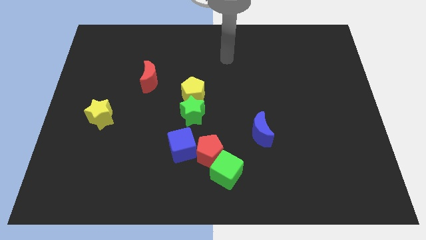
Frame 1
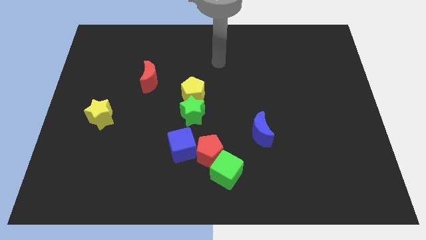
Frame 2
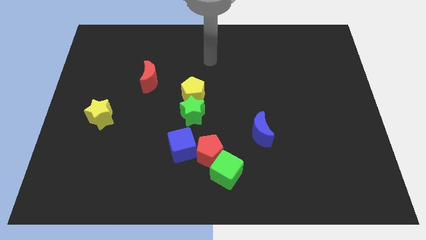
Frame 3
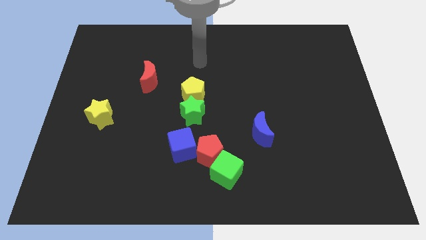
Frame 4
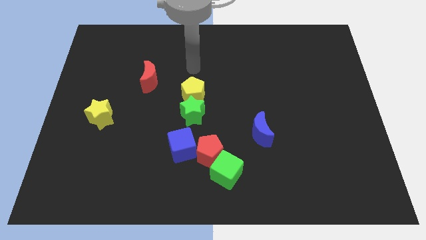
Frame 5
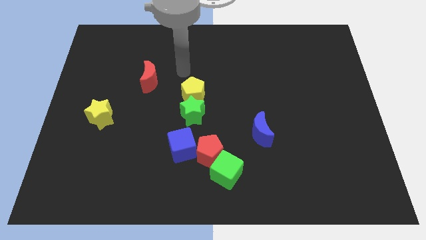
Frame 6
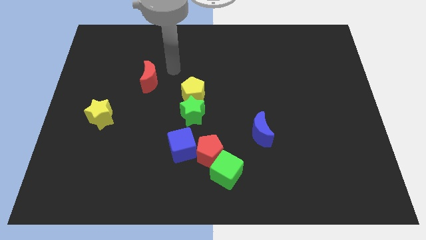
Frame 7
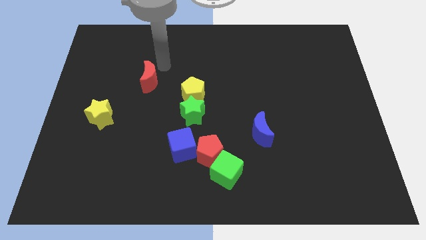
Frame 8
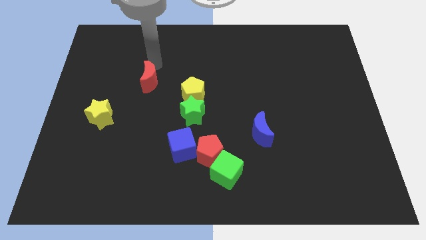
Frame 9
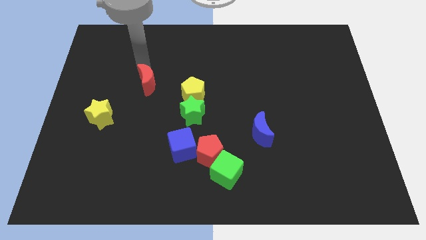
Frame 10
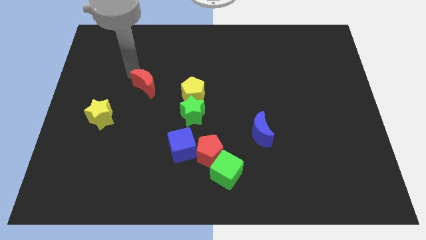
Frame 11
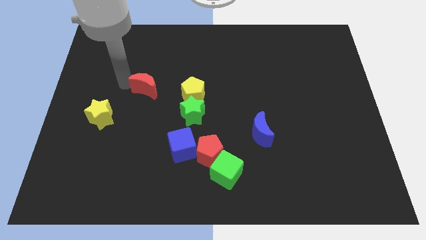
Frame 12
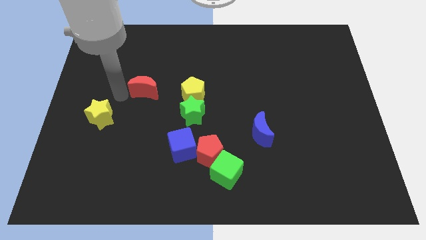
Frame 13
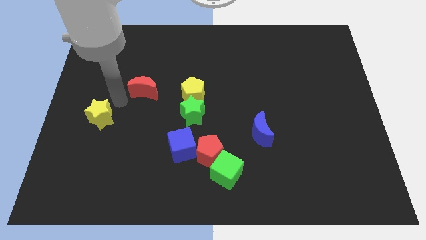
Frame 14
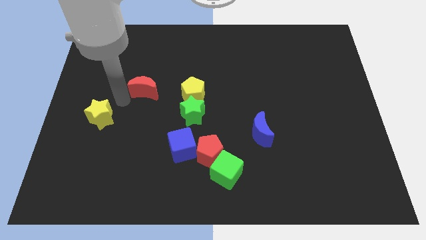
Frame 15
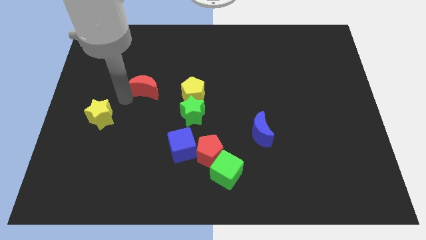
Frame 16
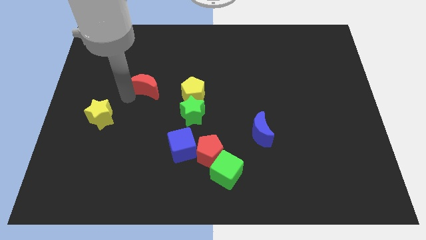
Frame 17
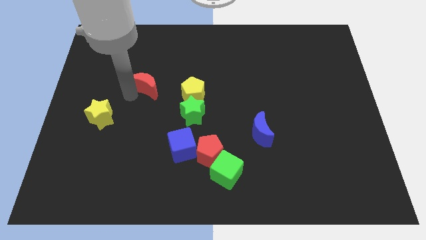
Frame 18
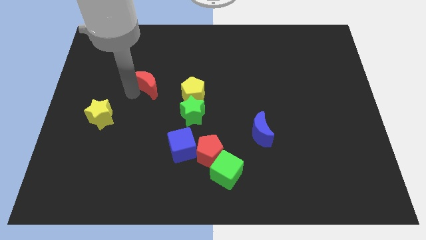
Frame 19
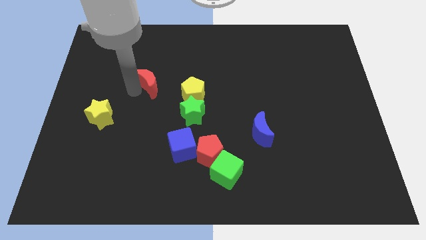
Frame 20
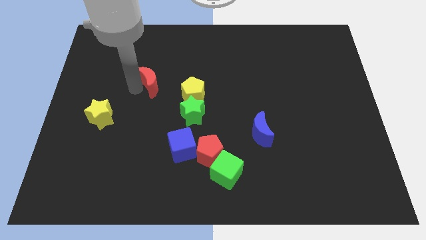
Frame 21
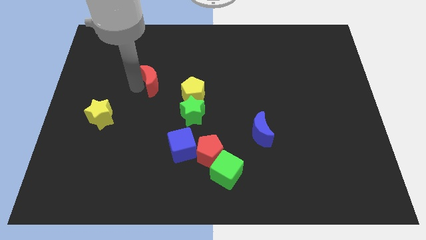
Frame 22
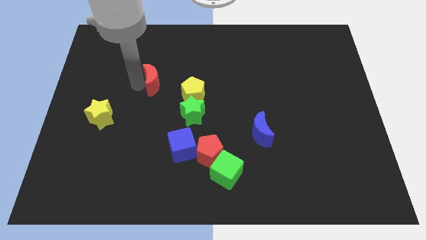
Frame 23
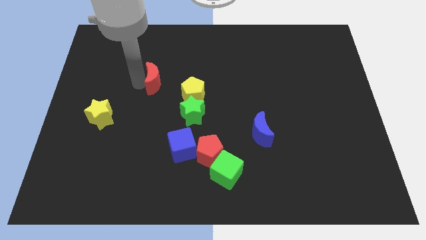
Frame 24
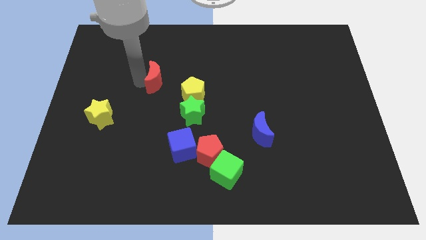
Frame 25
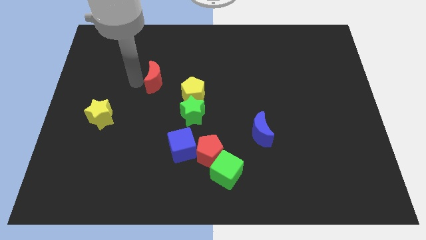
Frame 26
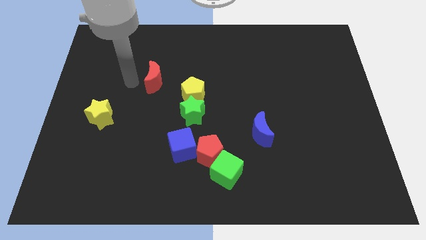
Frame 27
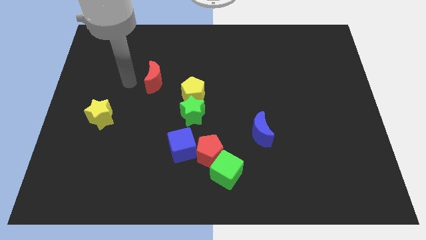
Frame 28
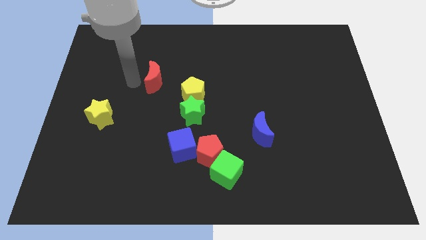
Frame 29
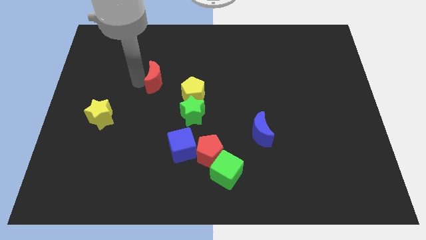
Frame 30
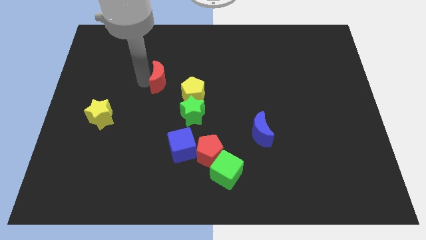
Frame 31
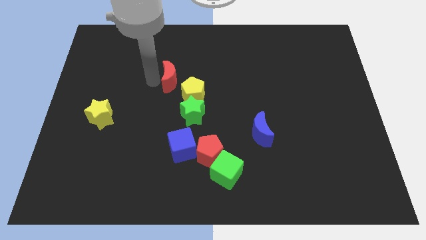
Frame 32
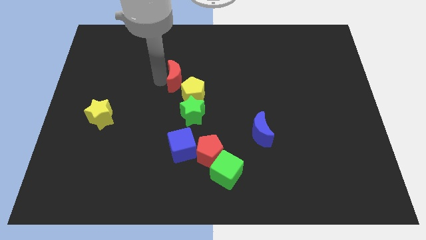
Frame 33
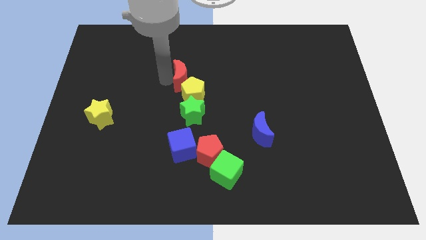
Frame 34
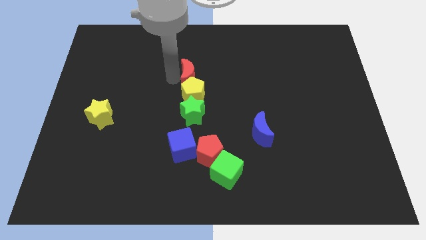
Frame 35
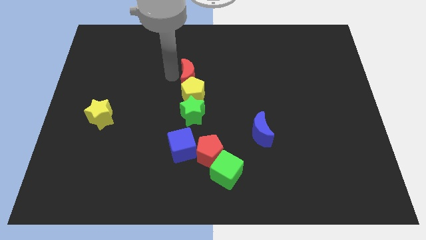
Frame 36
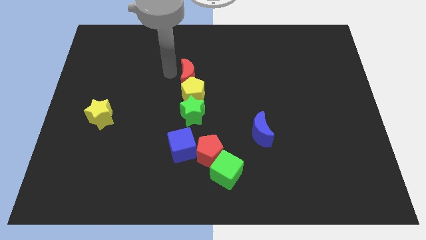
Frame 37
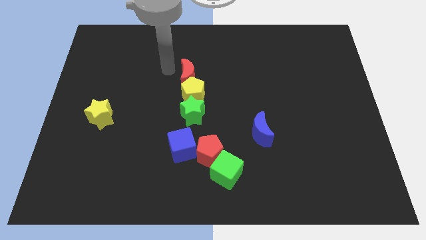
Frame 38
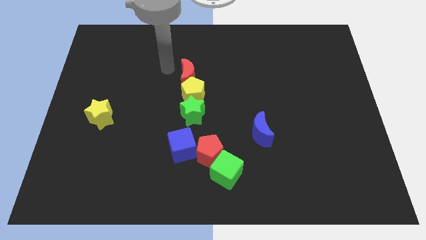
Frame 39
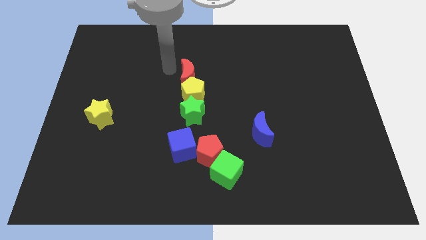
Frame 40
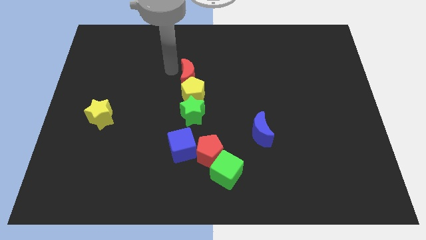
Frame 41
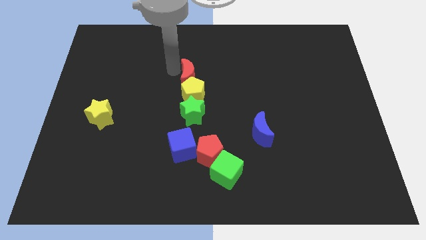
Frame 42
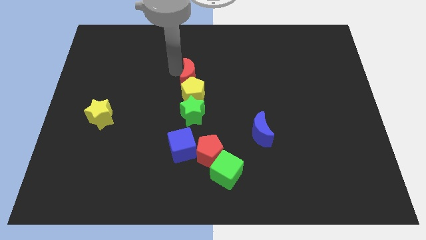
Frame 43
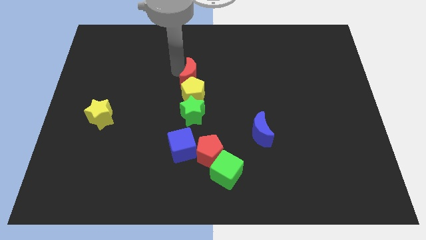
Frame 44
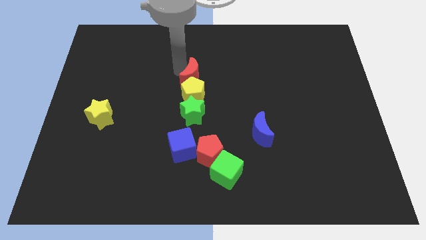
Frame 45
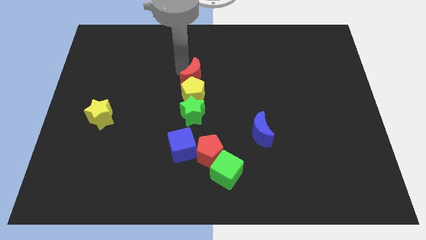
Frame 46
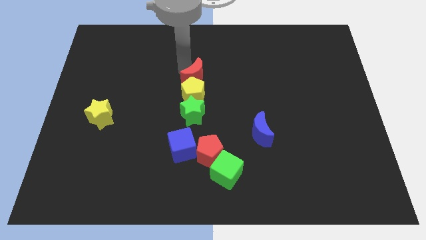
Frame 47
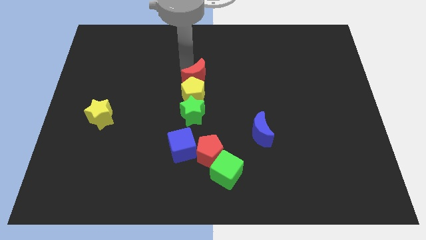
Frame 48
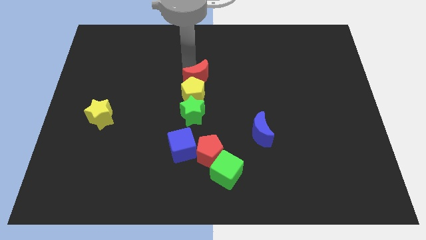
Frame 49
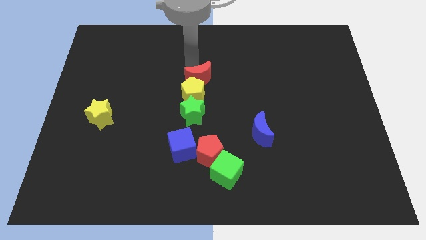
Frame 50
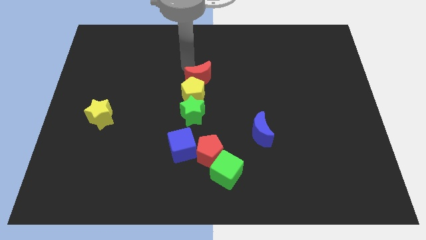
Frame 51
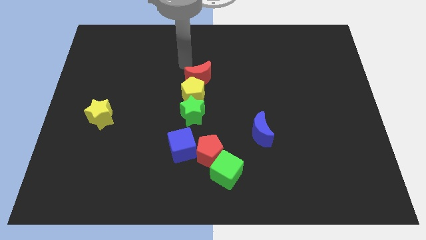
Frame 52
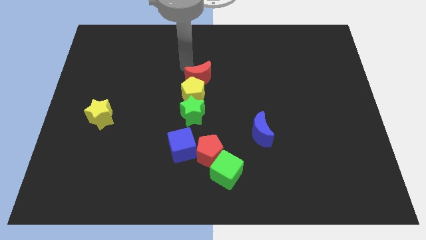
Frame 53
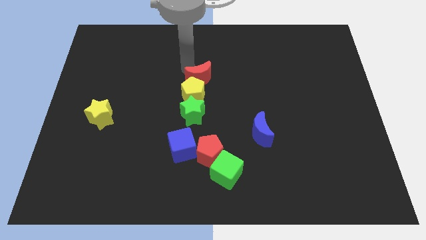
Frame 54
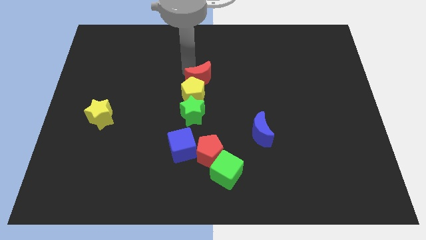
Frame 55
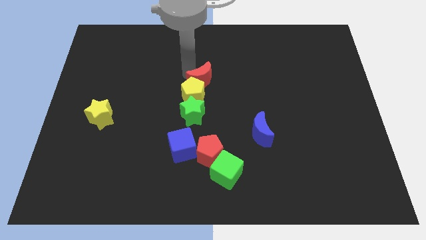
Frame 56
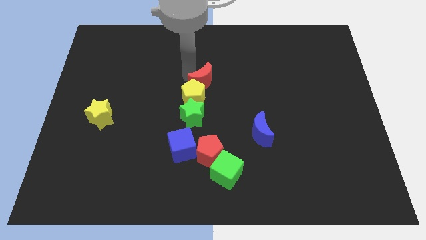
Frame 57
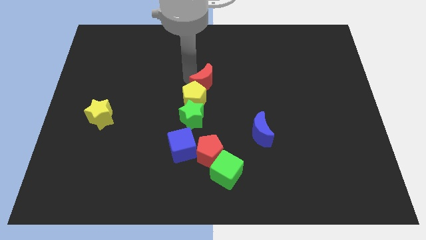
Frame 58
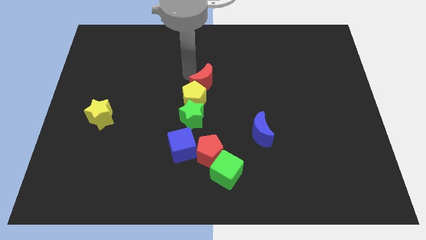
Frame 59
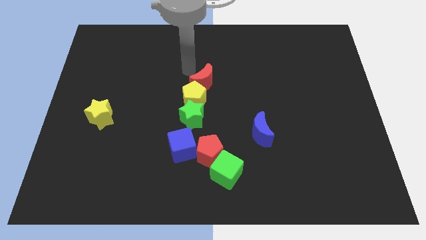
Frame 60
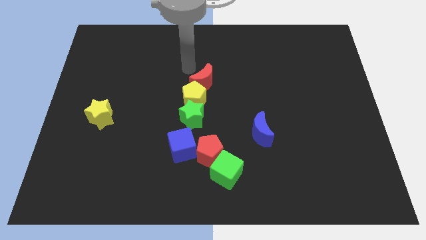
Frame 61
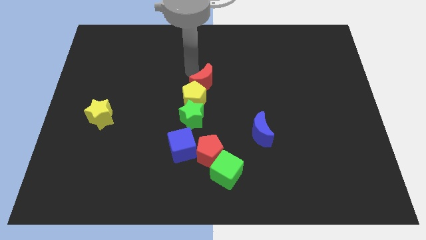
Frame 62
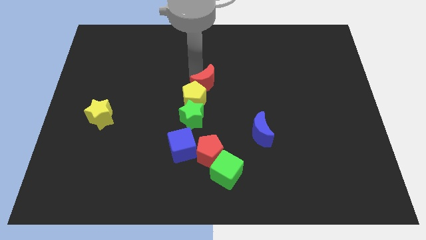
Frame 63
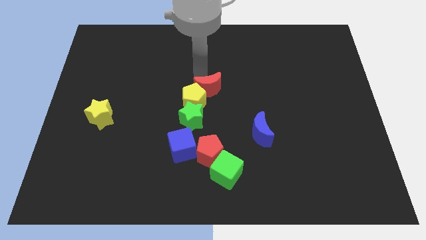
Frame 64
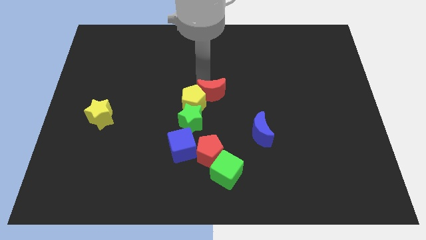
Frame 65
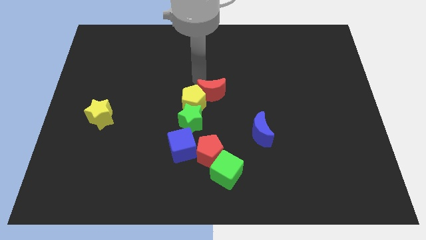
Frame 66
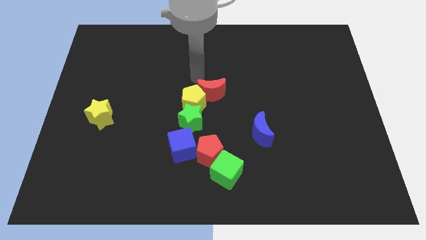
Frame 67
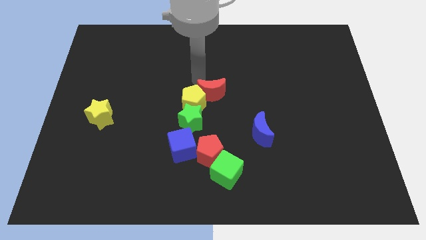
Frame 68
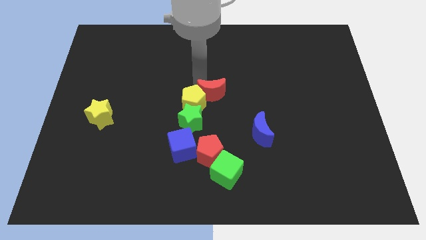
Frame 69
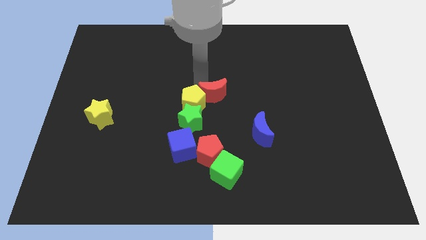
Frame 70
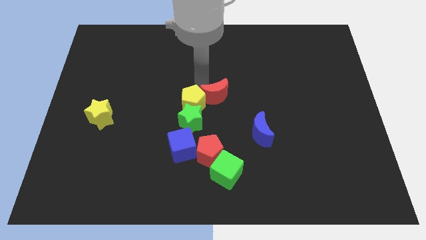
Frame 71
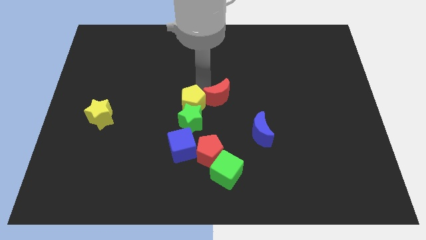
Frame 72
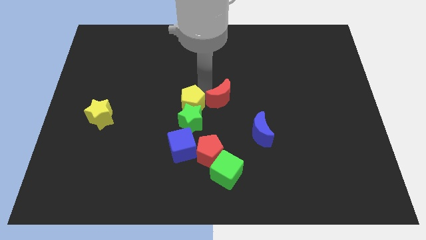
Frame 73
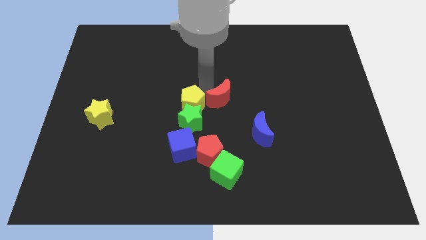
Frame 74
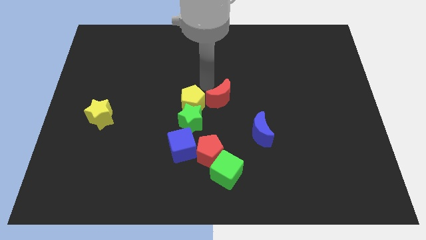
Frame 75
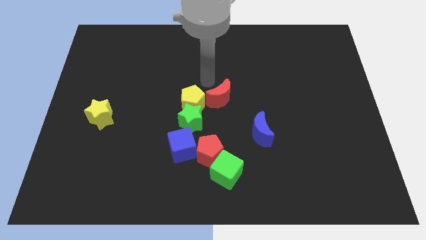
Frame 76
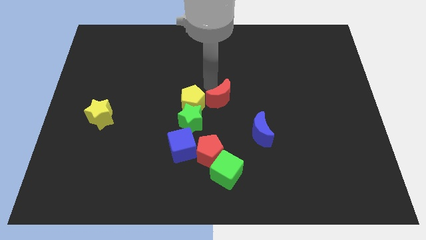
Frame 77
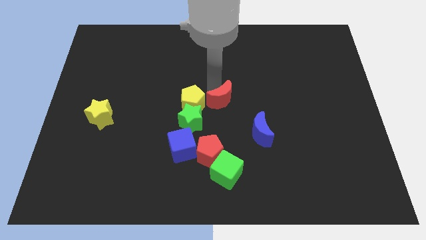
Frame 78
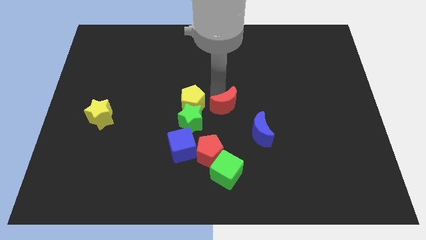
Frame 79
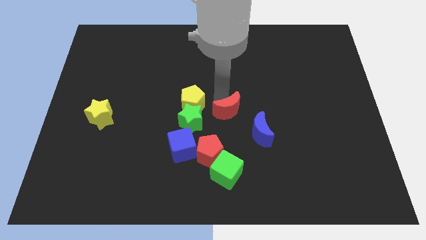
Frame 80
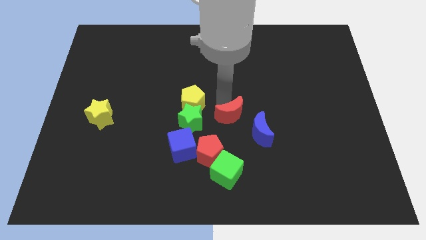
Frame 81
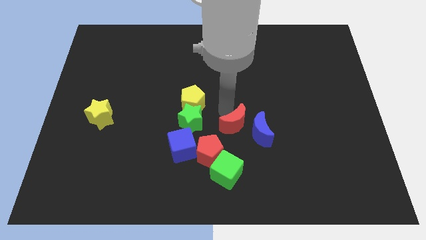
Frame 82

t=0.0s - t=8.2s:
push the red moon to the blue moon
